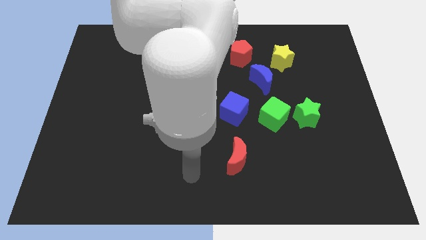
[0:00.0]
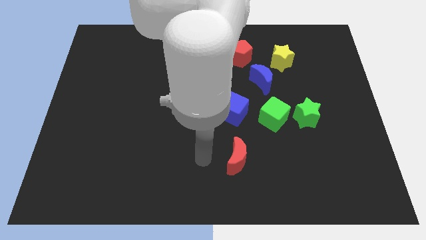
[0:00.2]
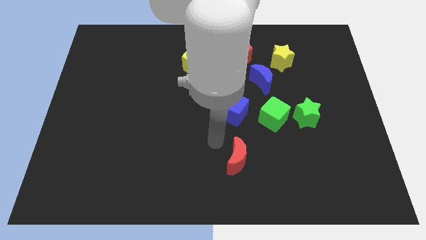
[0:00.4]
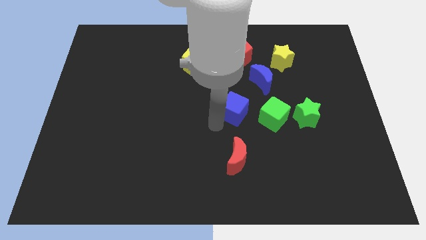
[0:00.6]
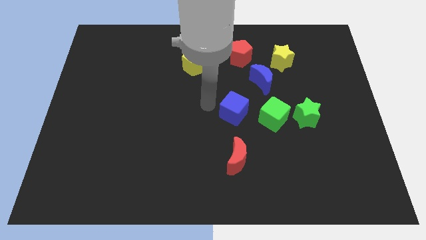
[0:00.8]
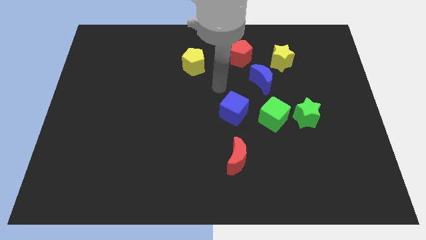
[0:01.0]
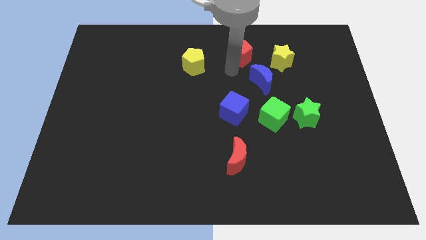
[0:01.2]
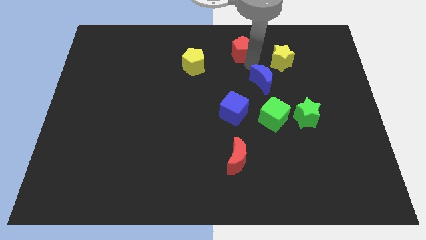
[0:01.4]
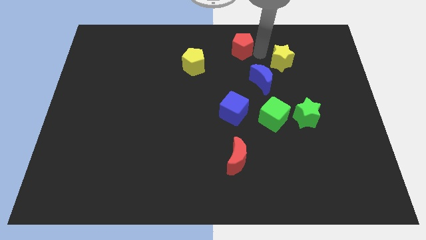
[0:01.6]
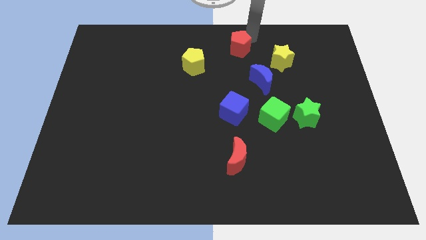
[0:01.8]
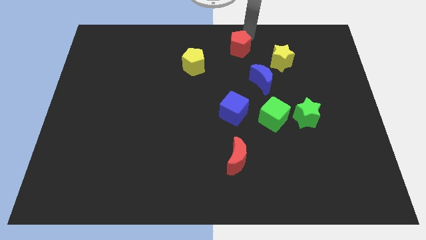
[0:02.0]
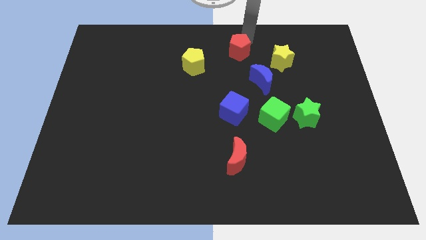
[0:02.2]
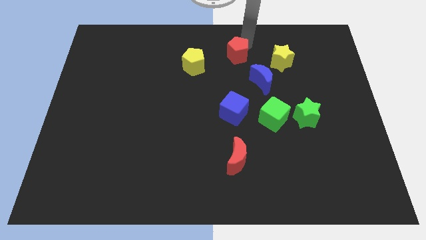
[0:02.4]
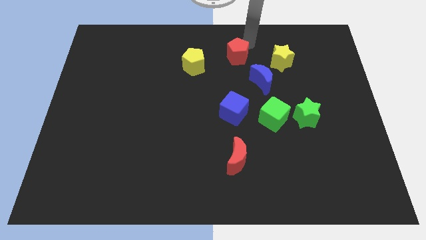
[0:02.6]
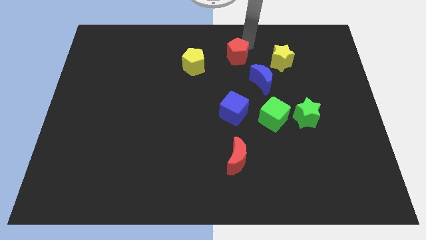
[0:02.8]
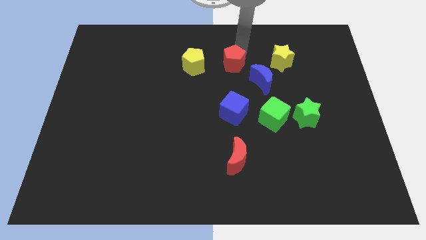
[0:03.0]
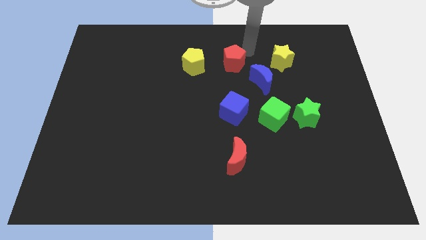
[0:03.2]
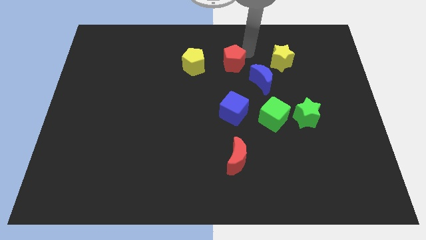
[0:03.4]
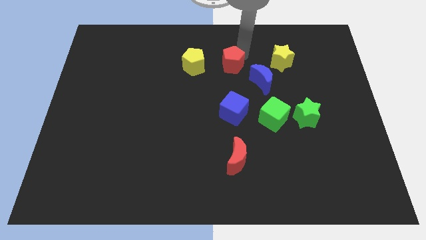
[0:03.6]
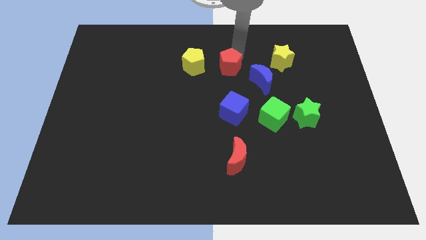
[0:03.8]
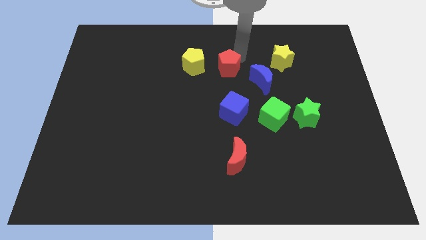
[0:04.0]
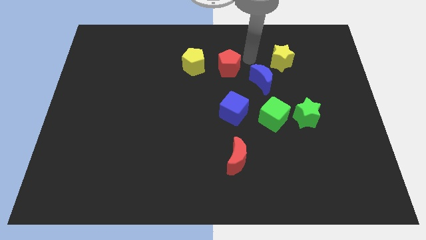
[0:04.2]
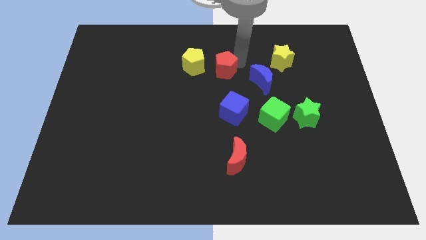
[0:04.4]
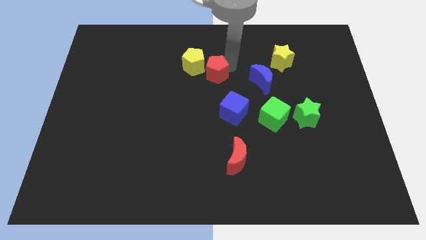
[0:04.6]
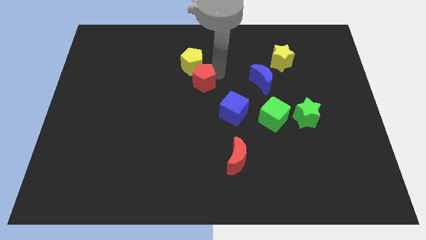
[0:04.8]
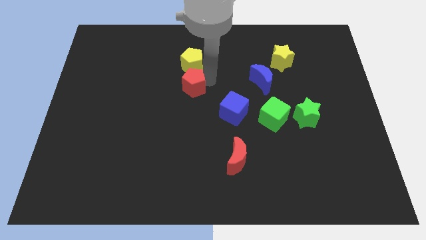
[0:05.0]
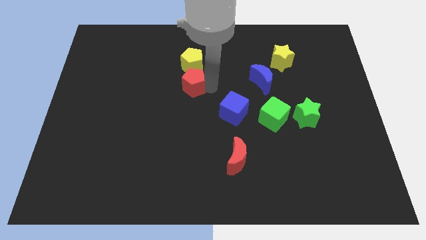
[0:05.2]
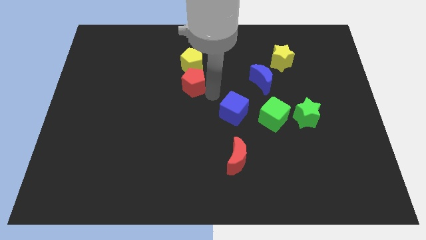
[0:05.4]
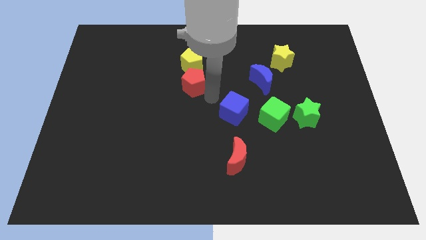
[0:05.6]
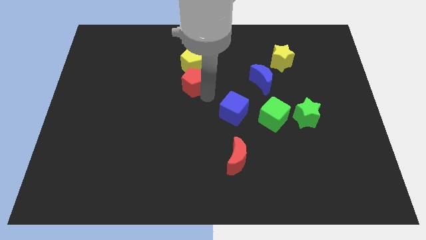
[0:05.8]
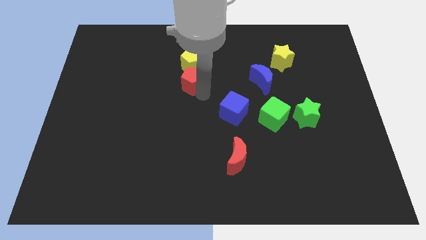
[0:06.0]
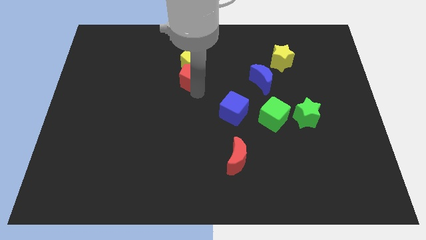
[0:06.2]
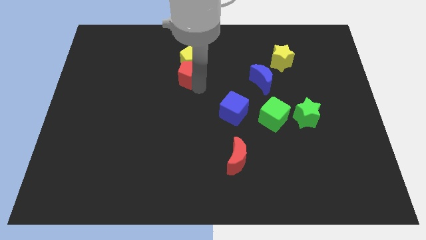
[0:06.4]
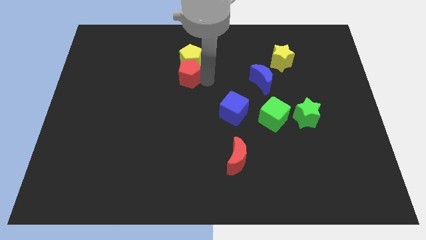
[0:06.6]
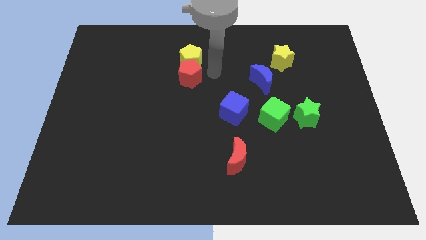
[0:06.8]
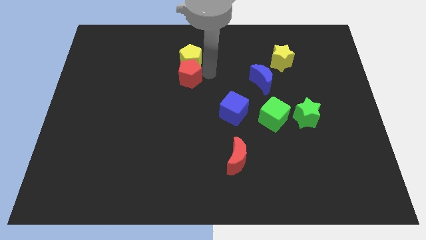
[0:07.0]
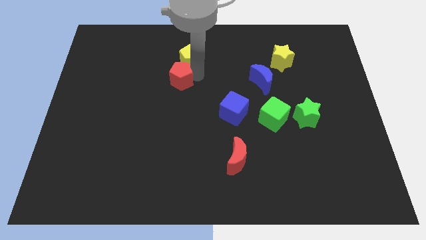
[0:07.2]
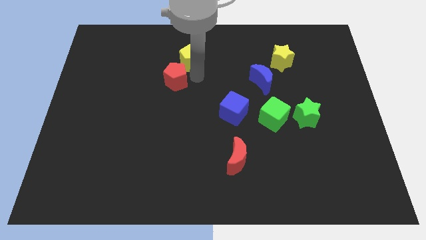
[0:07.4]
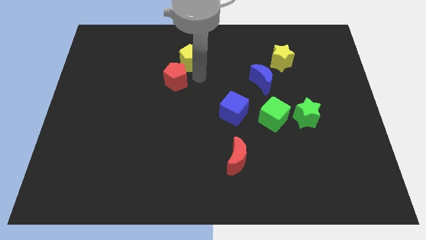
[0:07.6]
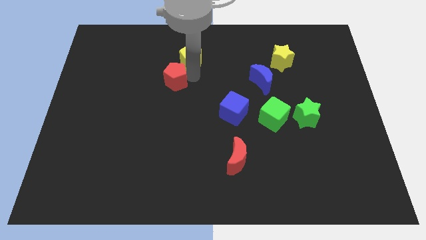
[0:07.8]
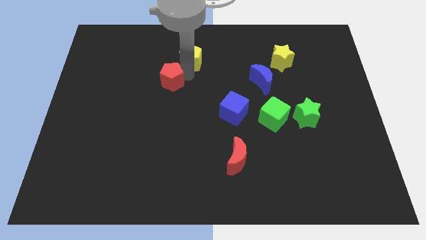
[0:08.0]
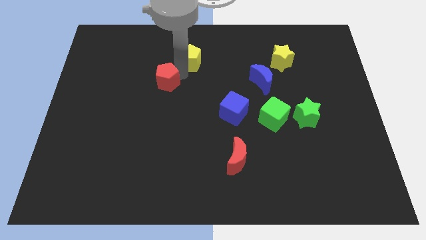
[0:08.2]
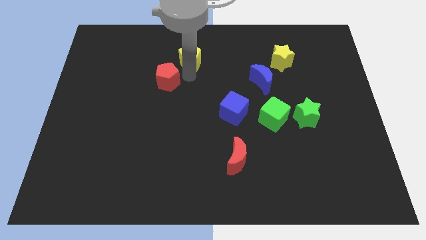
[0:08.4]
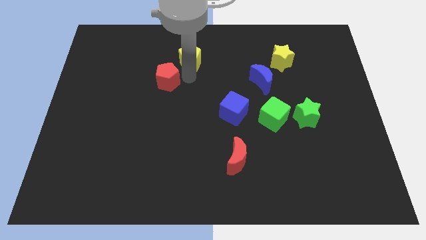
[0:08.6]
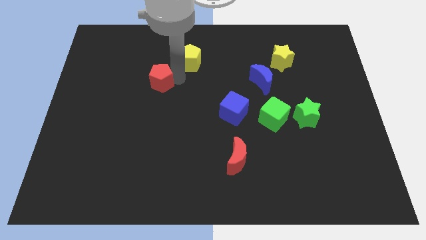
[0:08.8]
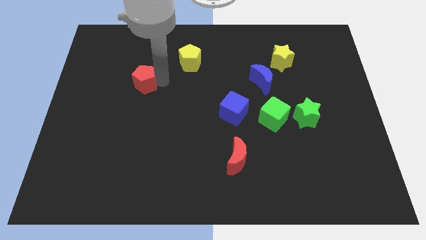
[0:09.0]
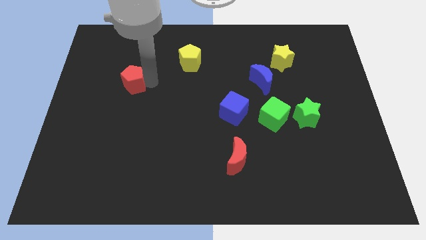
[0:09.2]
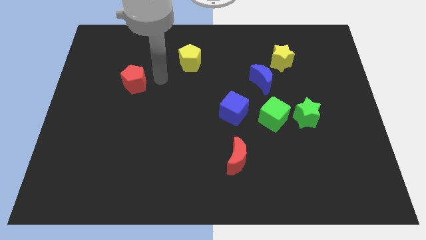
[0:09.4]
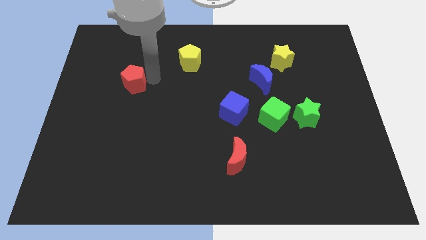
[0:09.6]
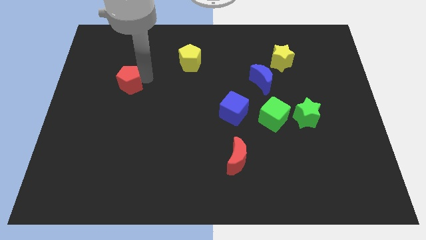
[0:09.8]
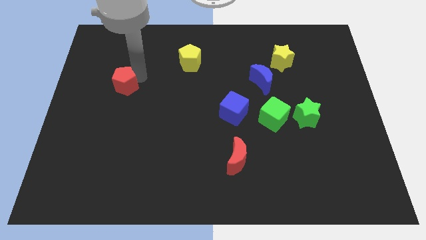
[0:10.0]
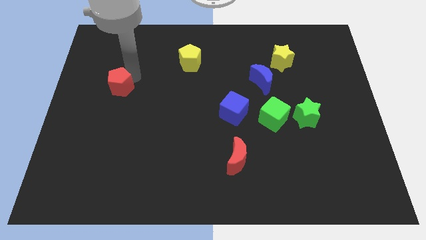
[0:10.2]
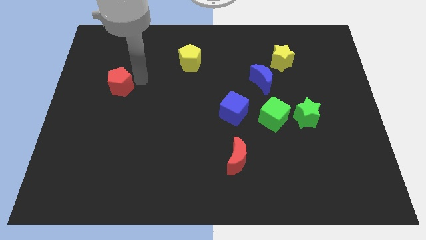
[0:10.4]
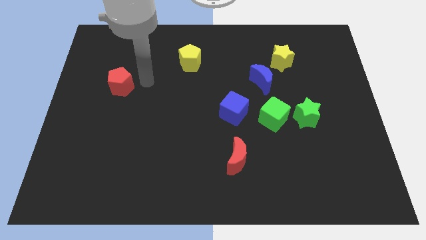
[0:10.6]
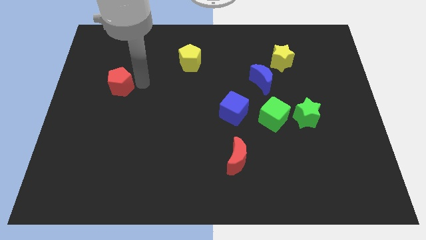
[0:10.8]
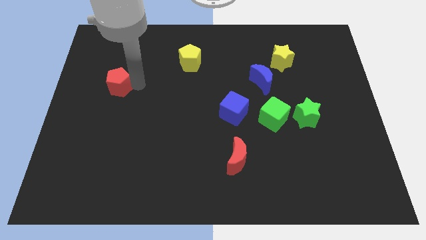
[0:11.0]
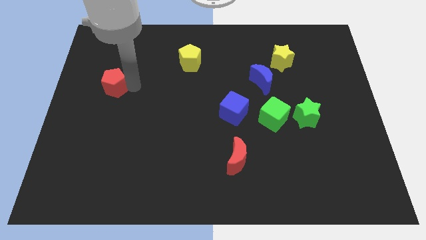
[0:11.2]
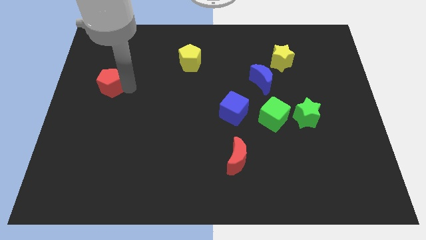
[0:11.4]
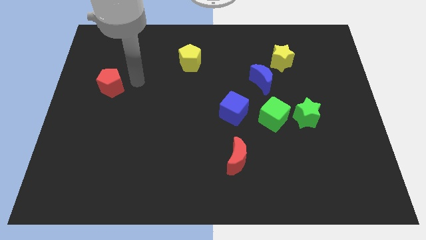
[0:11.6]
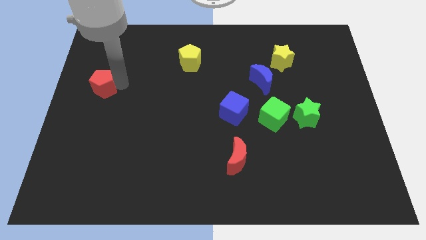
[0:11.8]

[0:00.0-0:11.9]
push the red pentagon to the center left

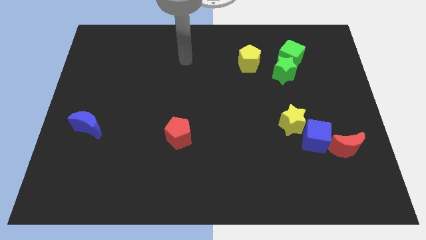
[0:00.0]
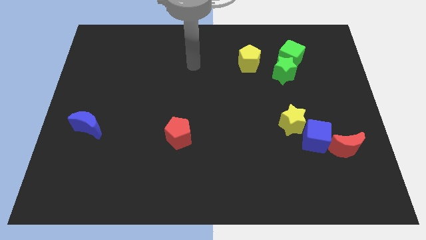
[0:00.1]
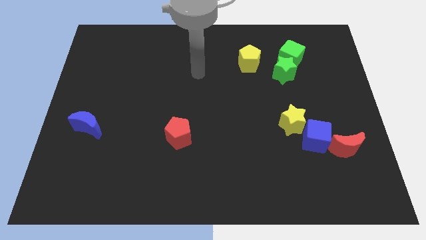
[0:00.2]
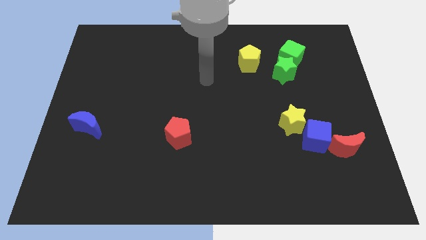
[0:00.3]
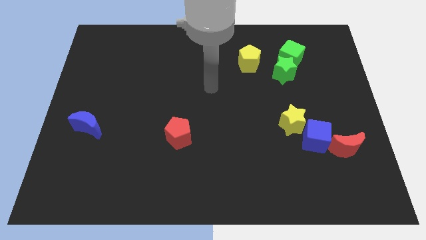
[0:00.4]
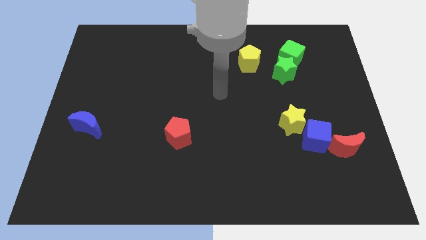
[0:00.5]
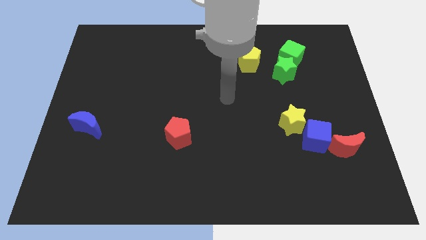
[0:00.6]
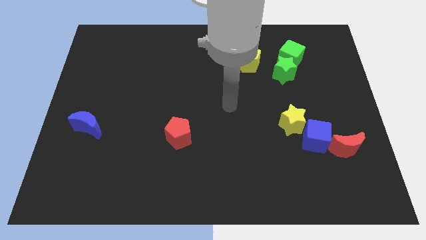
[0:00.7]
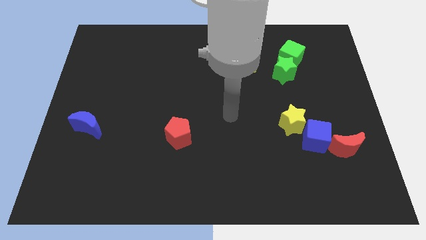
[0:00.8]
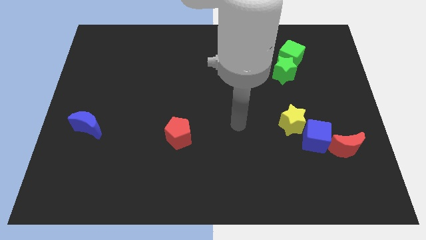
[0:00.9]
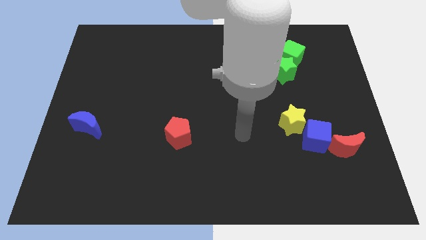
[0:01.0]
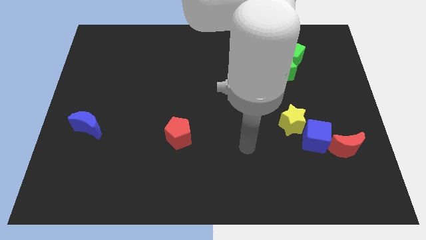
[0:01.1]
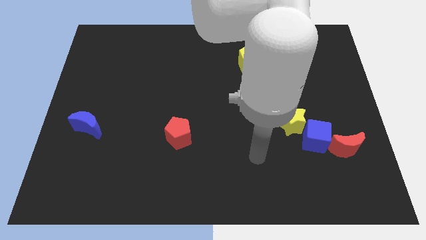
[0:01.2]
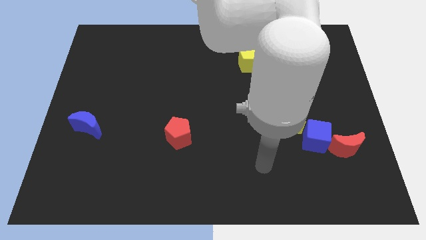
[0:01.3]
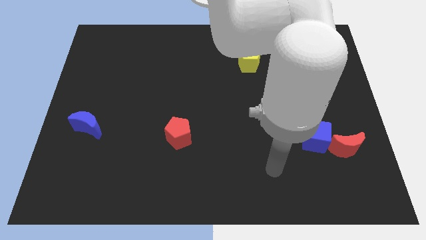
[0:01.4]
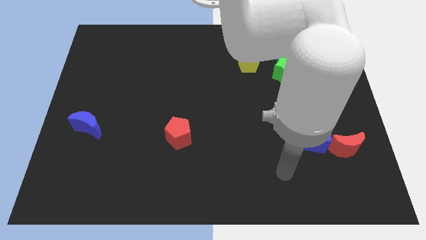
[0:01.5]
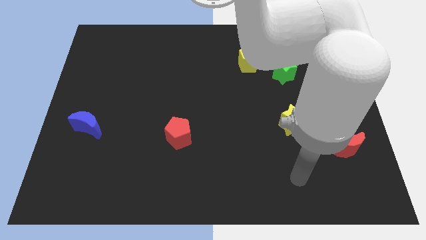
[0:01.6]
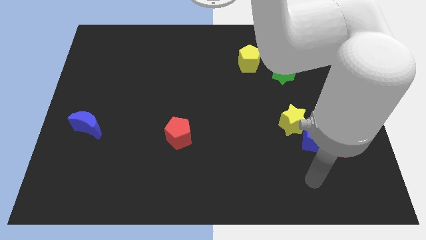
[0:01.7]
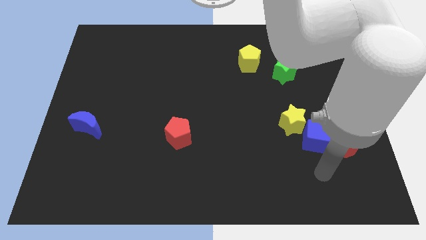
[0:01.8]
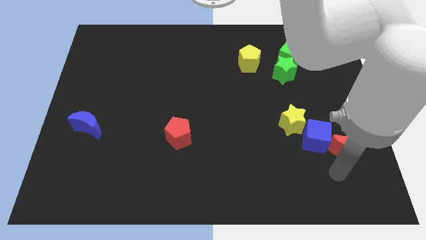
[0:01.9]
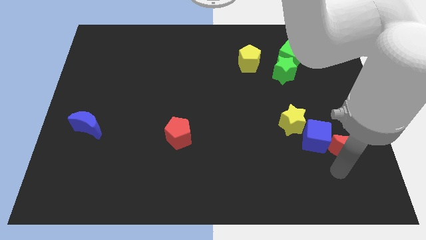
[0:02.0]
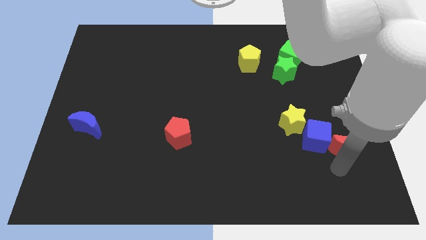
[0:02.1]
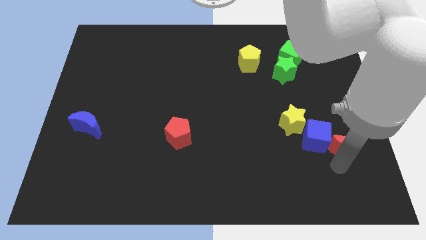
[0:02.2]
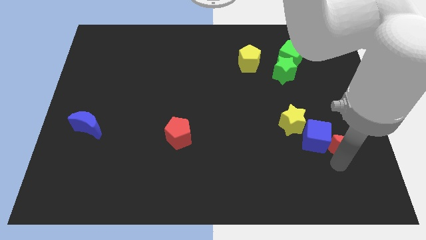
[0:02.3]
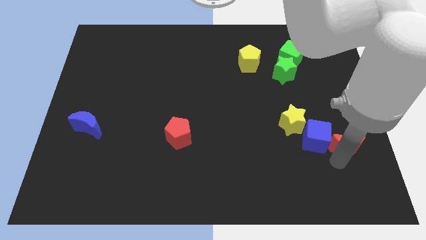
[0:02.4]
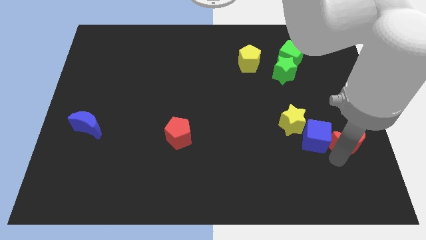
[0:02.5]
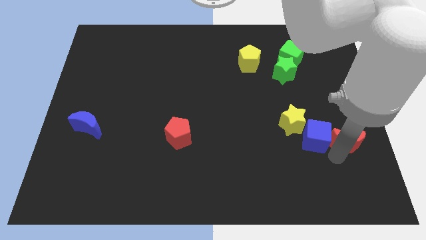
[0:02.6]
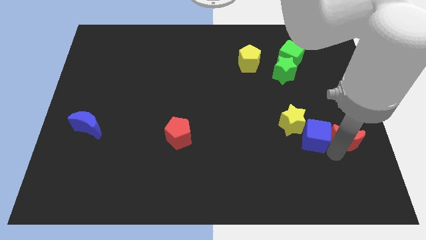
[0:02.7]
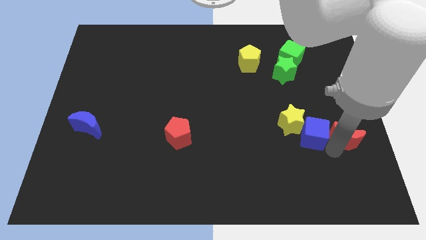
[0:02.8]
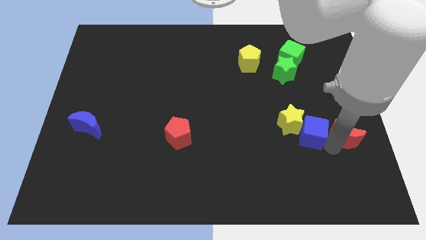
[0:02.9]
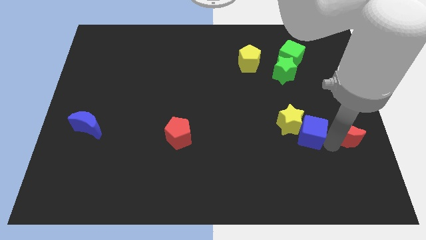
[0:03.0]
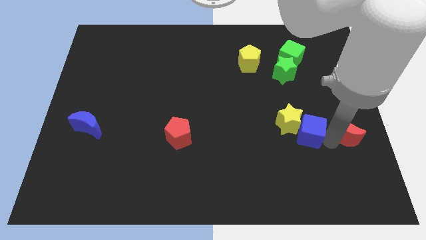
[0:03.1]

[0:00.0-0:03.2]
push the red moon to the center right
